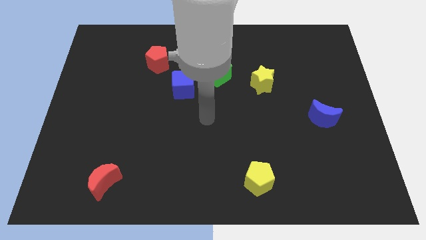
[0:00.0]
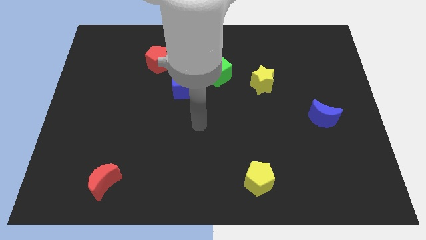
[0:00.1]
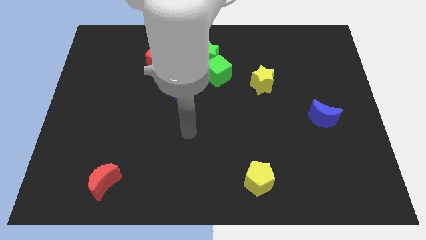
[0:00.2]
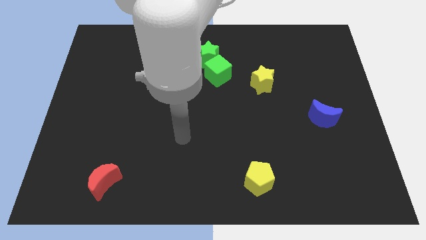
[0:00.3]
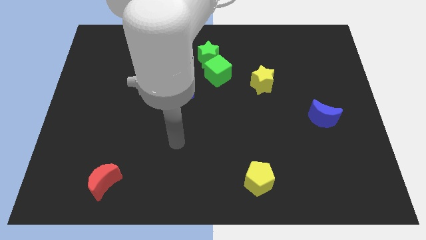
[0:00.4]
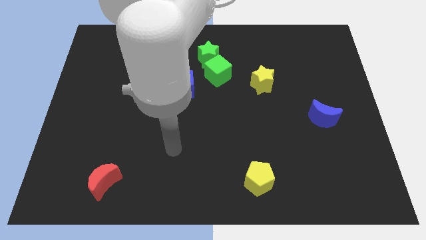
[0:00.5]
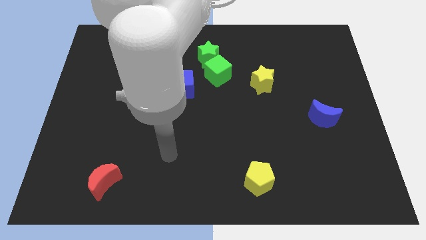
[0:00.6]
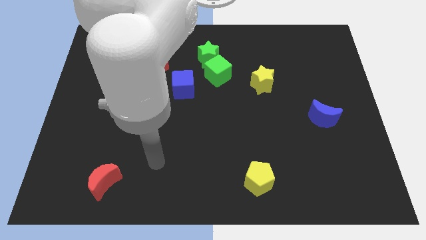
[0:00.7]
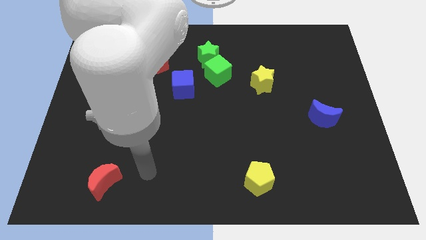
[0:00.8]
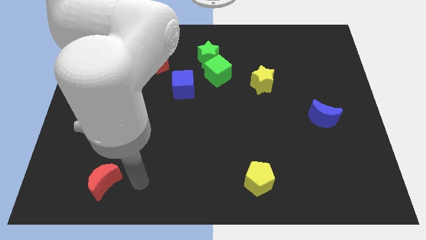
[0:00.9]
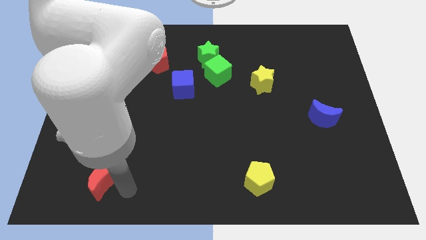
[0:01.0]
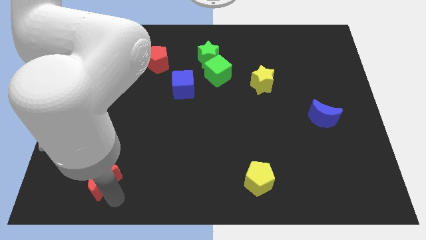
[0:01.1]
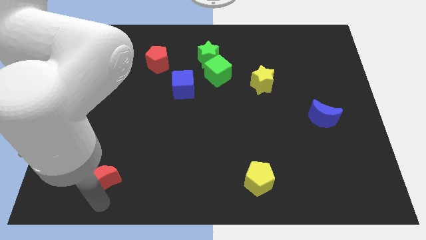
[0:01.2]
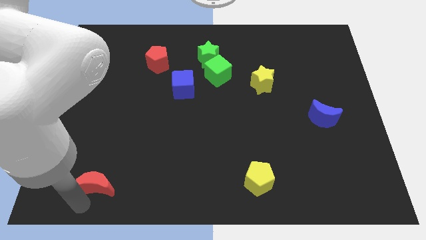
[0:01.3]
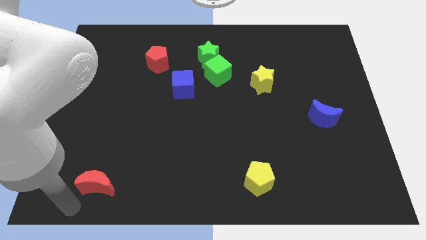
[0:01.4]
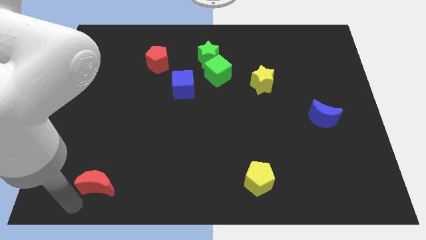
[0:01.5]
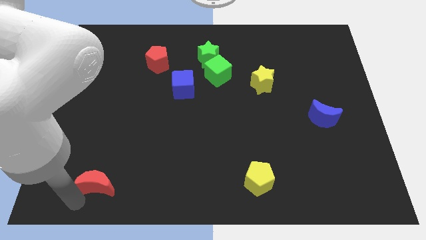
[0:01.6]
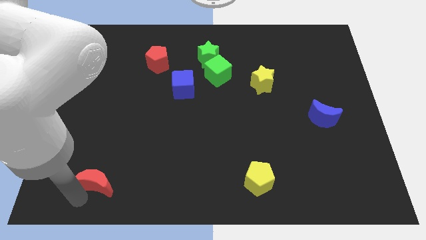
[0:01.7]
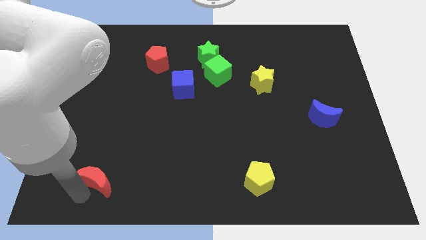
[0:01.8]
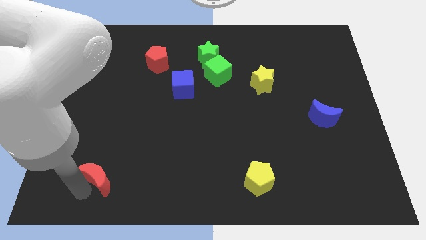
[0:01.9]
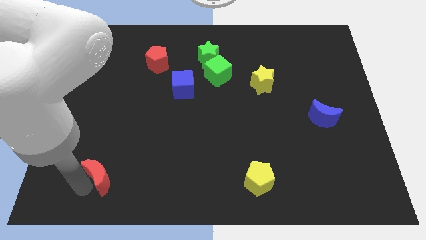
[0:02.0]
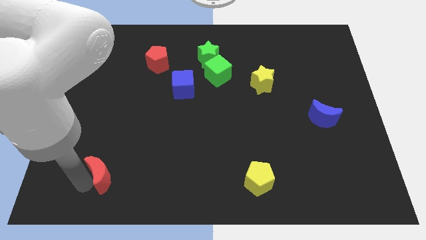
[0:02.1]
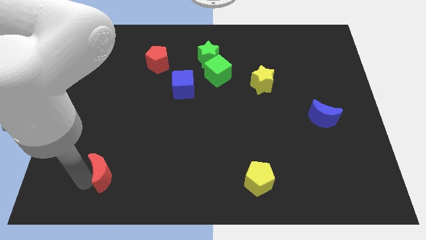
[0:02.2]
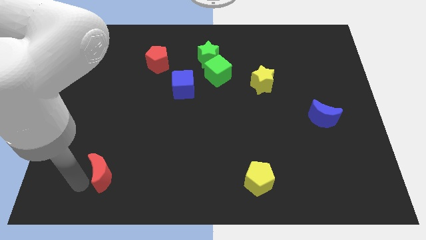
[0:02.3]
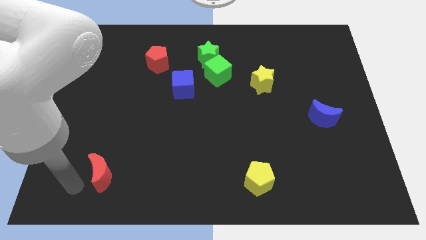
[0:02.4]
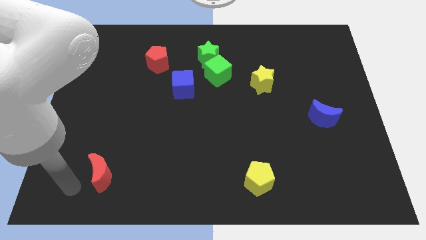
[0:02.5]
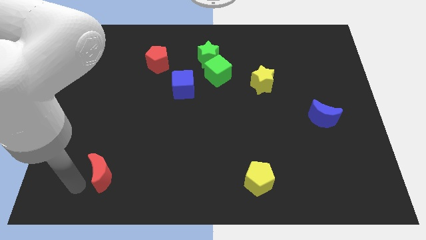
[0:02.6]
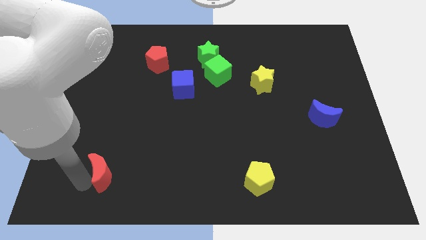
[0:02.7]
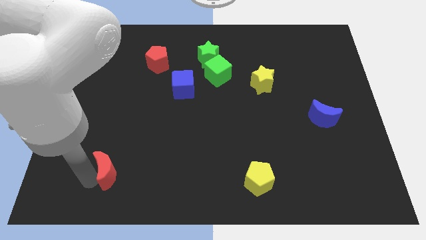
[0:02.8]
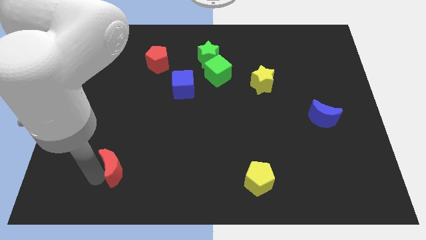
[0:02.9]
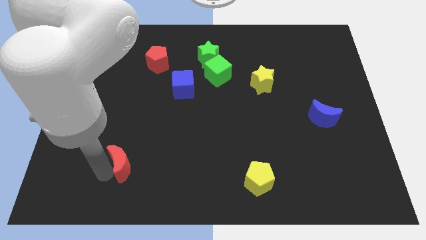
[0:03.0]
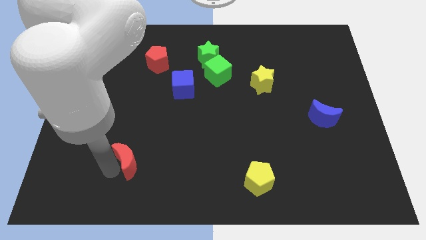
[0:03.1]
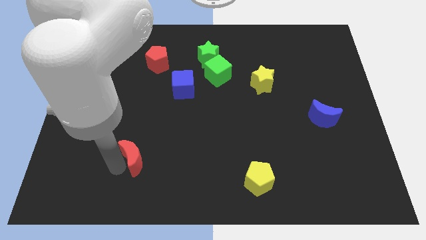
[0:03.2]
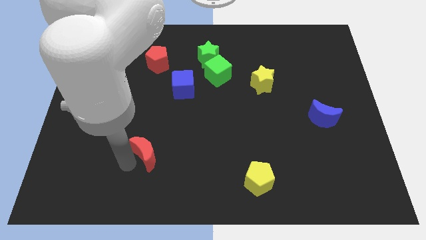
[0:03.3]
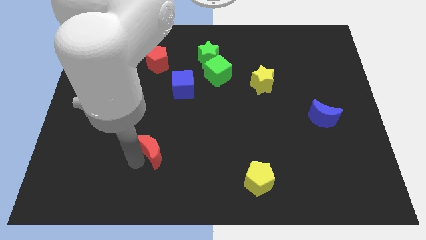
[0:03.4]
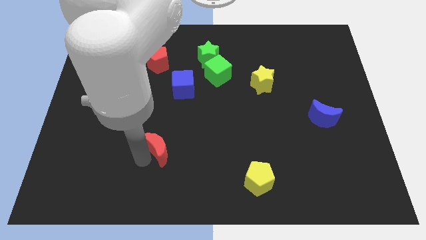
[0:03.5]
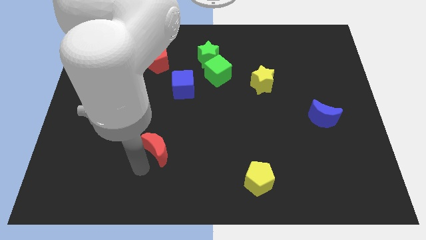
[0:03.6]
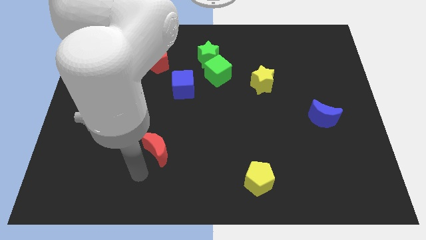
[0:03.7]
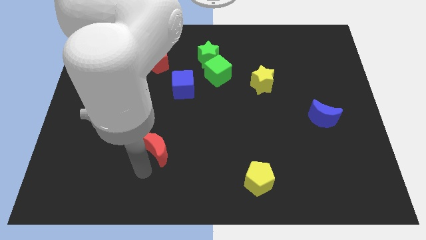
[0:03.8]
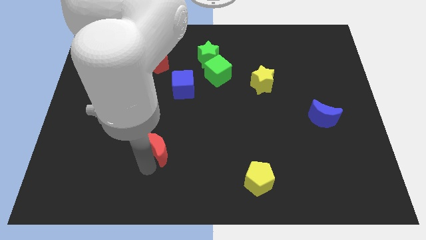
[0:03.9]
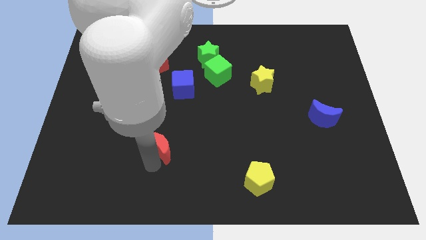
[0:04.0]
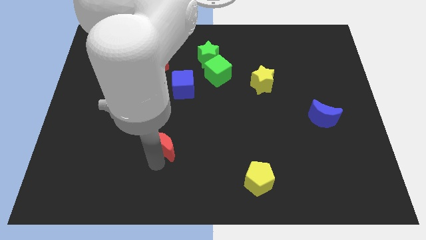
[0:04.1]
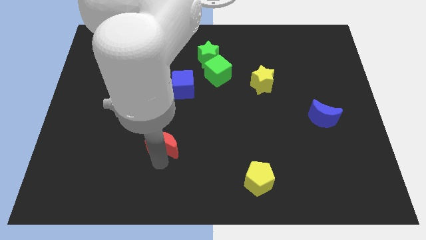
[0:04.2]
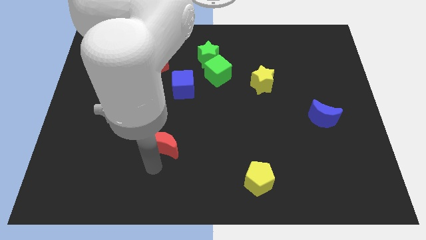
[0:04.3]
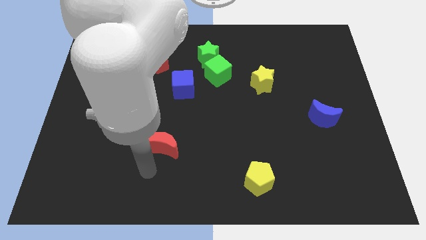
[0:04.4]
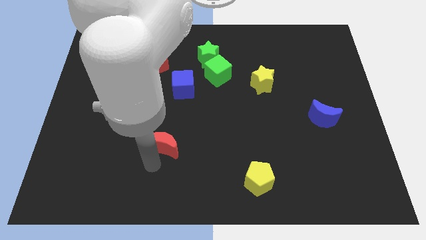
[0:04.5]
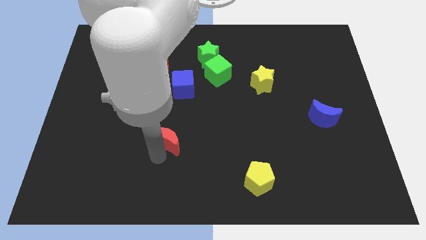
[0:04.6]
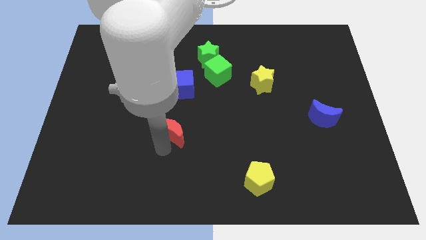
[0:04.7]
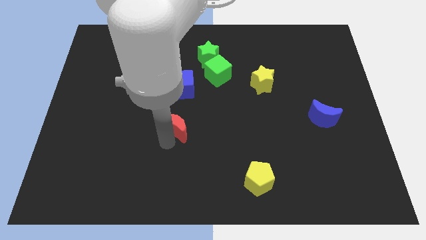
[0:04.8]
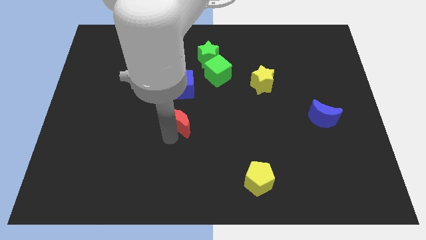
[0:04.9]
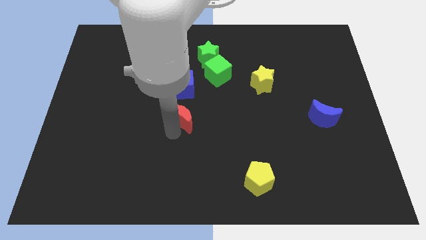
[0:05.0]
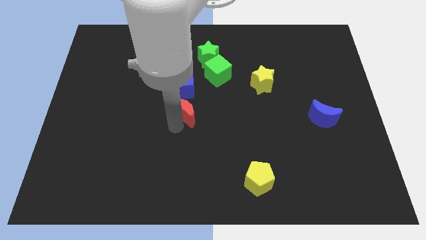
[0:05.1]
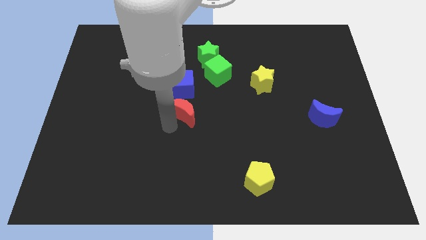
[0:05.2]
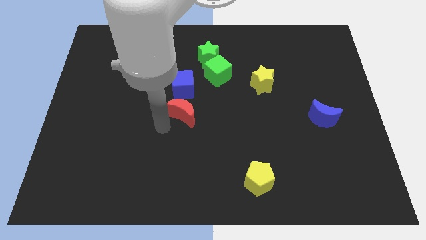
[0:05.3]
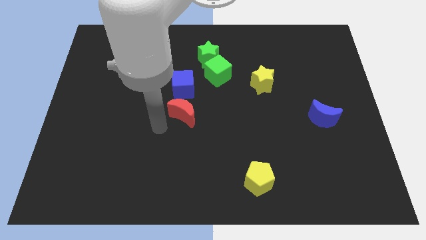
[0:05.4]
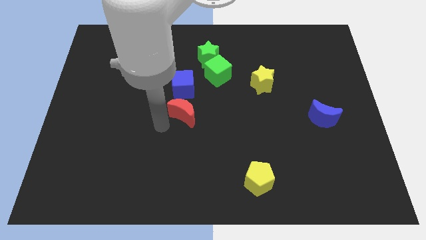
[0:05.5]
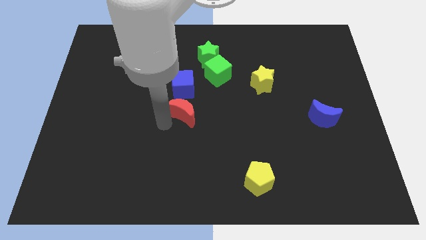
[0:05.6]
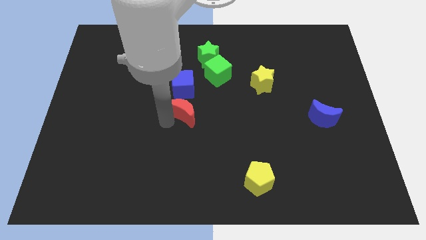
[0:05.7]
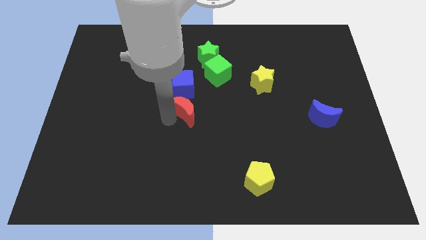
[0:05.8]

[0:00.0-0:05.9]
move the red moon to the bottom right of the blue cube

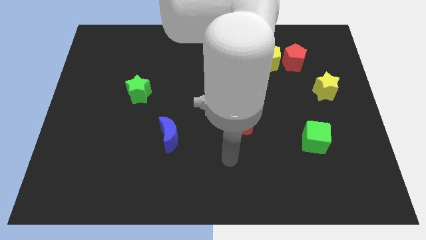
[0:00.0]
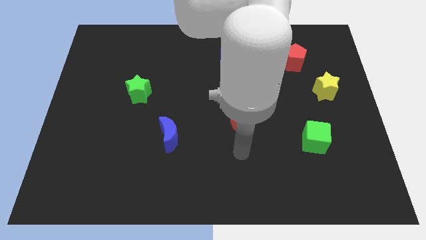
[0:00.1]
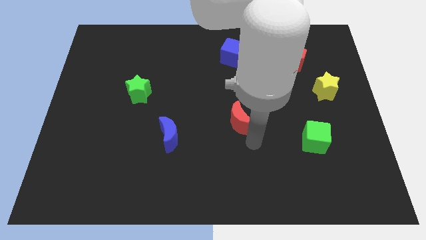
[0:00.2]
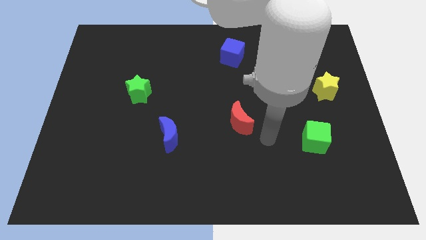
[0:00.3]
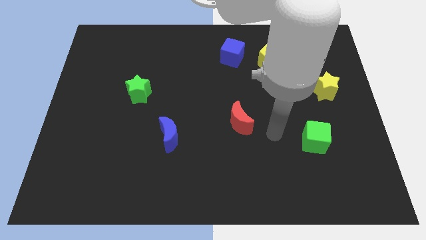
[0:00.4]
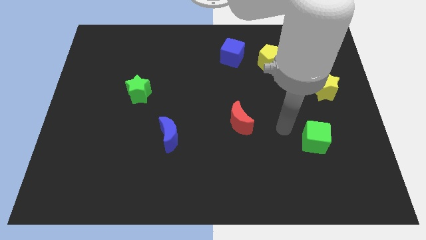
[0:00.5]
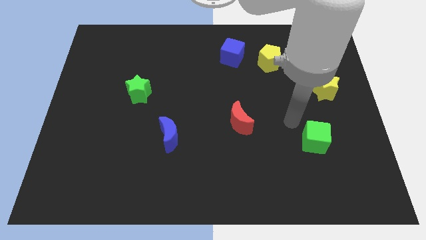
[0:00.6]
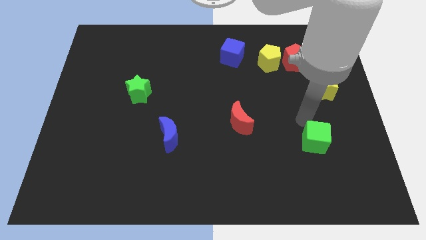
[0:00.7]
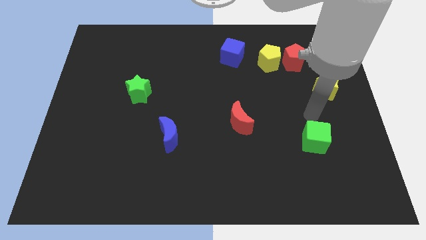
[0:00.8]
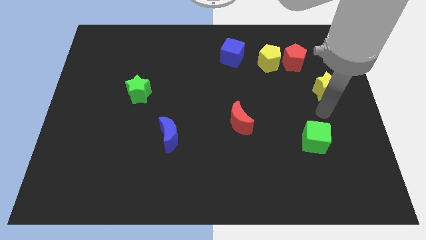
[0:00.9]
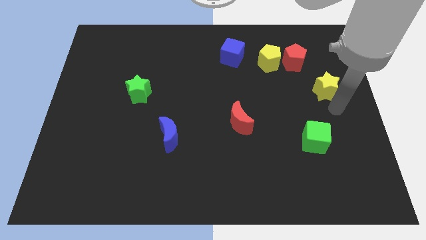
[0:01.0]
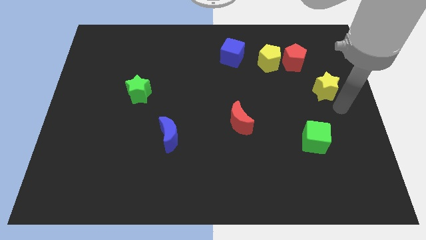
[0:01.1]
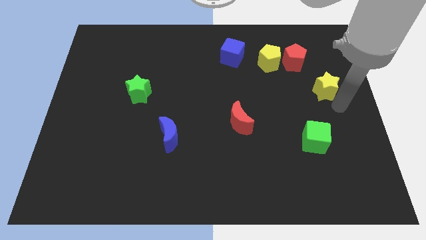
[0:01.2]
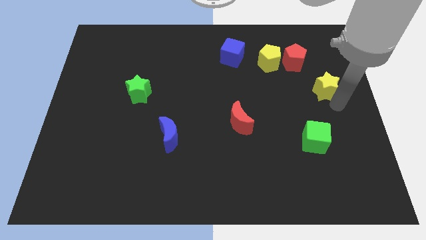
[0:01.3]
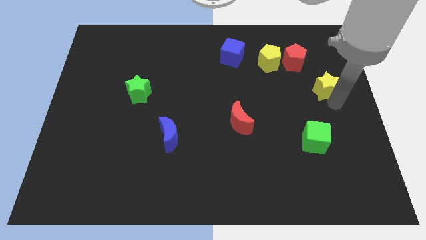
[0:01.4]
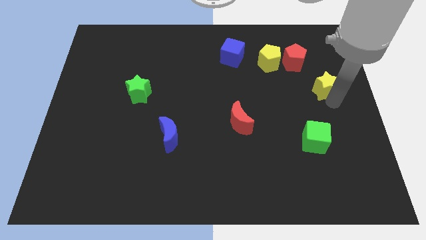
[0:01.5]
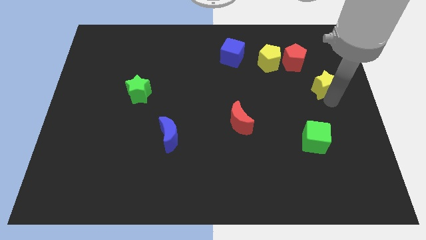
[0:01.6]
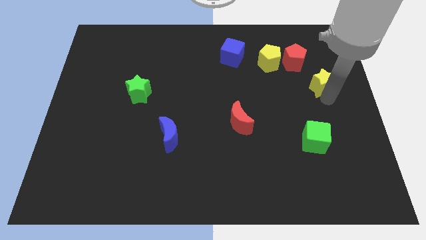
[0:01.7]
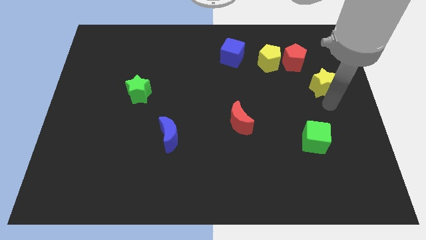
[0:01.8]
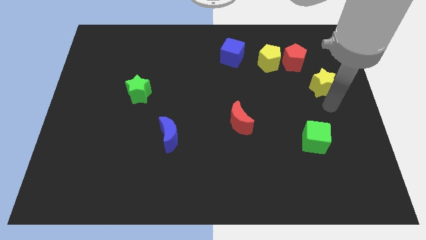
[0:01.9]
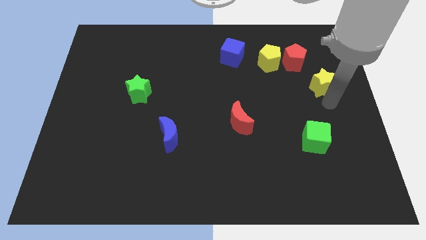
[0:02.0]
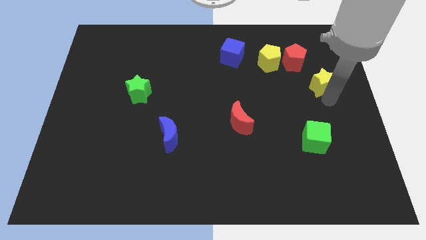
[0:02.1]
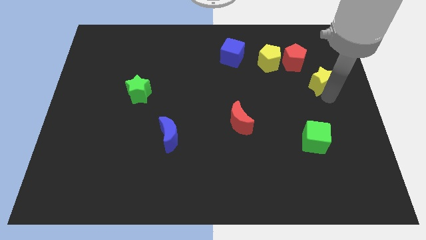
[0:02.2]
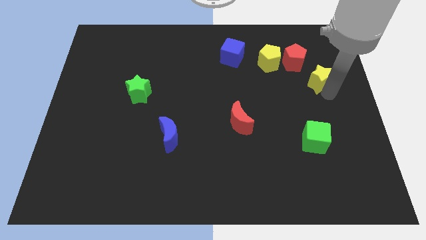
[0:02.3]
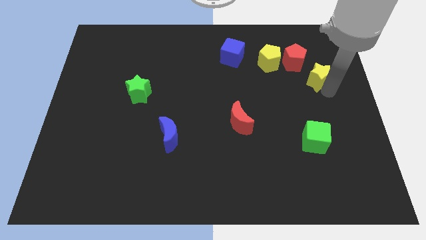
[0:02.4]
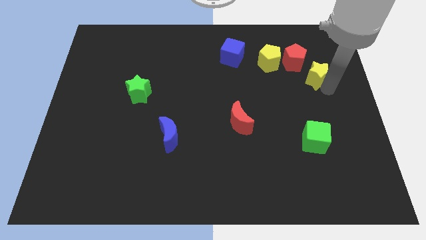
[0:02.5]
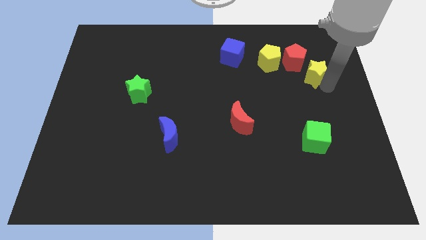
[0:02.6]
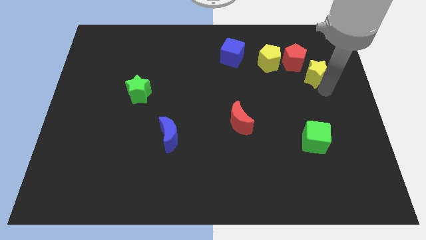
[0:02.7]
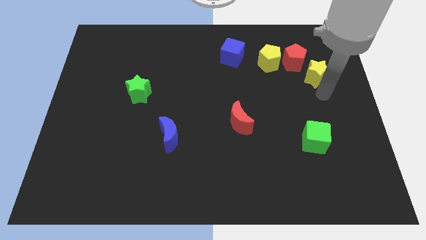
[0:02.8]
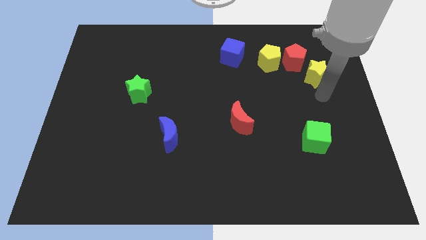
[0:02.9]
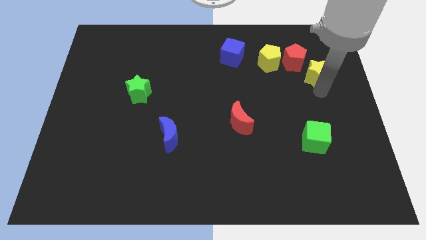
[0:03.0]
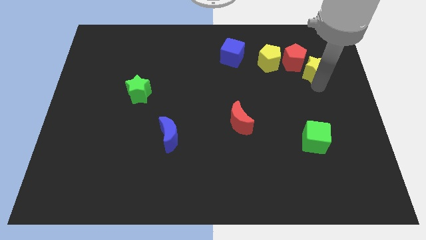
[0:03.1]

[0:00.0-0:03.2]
push the yellow star just right of the yellow pentagon
